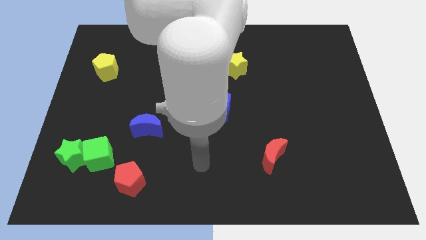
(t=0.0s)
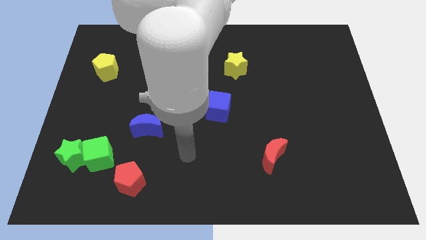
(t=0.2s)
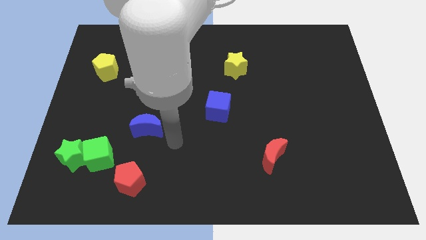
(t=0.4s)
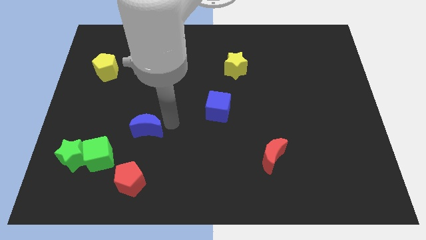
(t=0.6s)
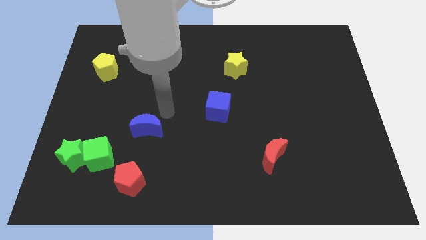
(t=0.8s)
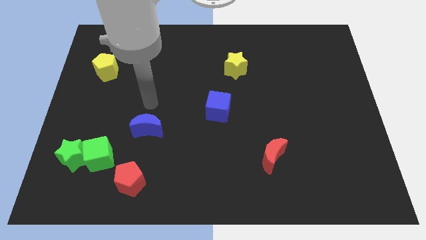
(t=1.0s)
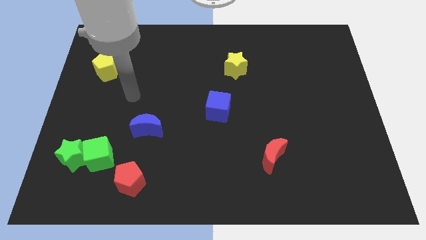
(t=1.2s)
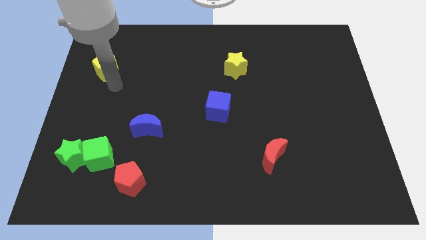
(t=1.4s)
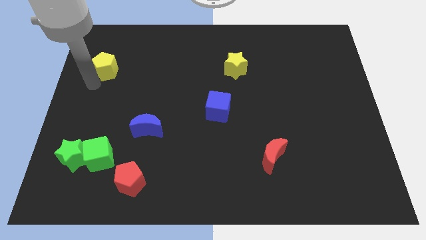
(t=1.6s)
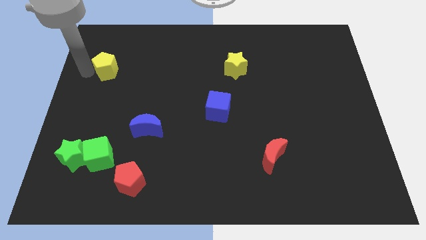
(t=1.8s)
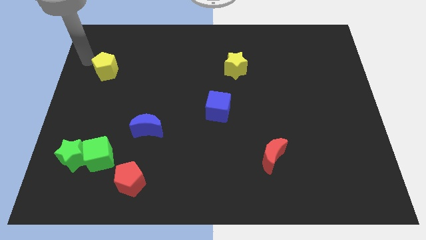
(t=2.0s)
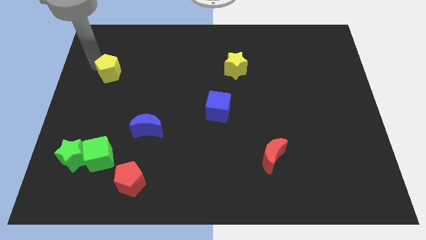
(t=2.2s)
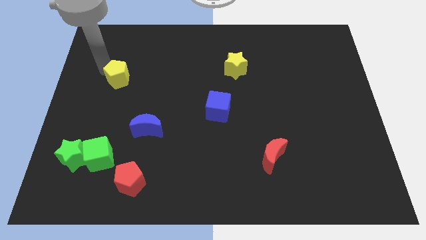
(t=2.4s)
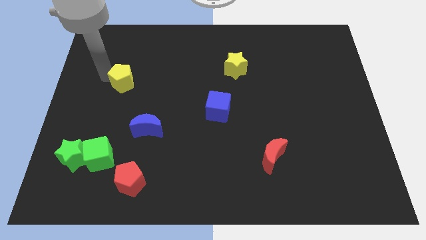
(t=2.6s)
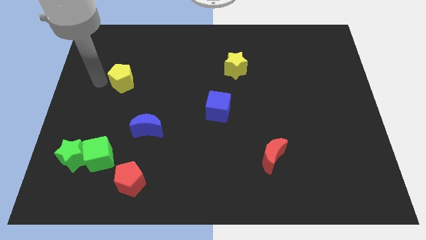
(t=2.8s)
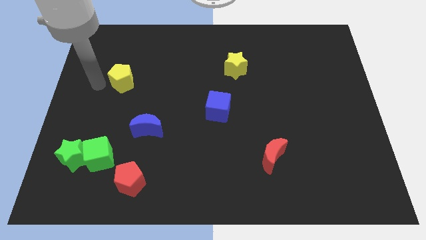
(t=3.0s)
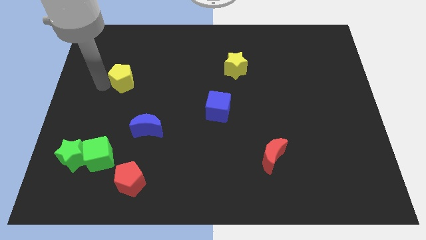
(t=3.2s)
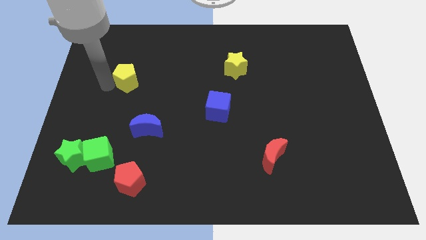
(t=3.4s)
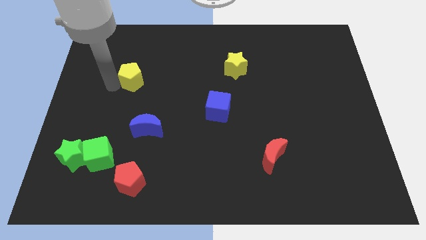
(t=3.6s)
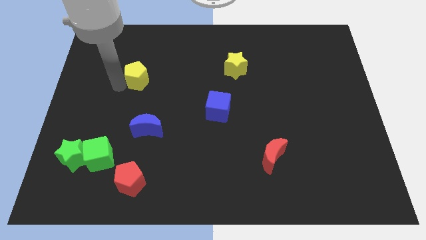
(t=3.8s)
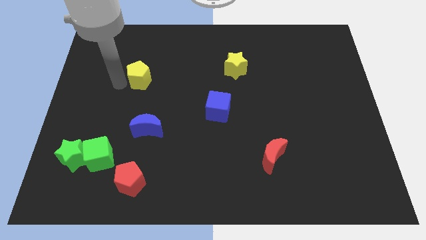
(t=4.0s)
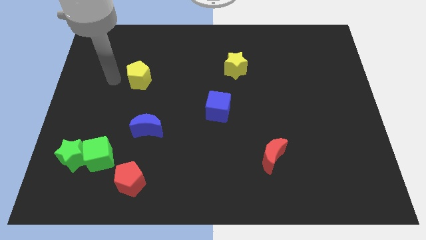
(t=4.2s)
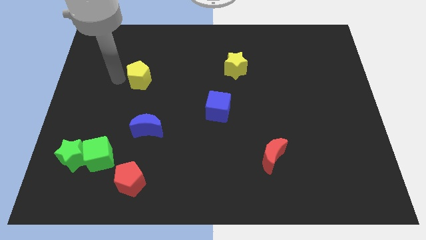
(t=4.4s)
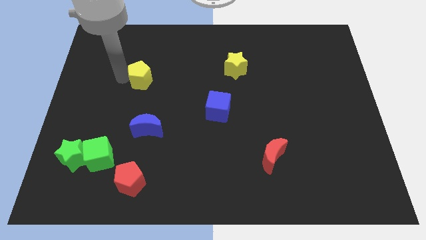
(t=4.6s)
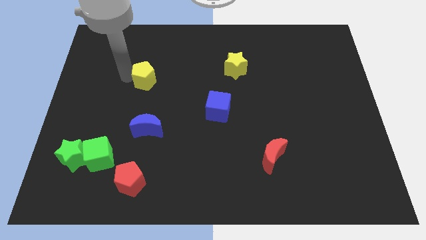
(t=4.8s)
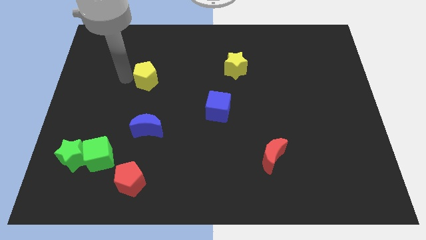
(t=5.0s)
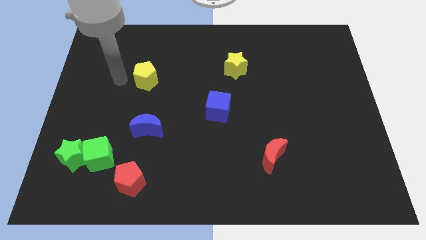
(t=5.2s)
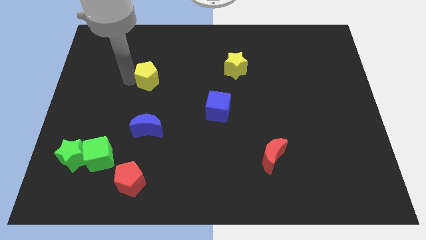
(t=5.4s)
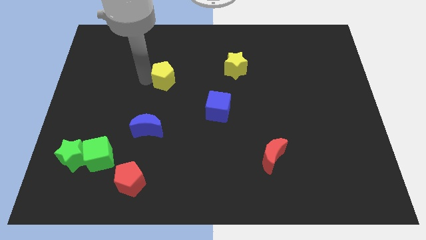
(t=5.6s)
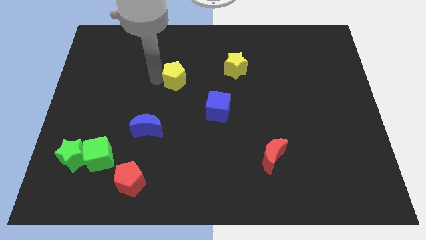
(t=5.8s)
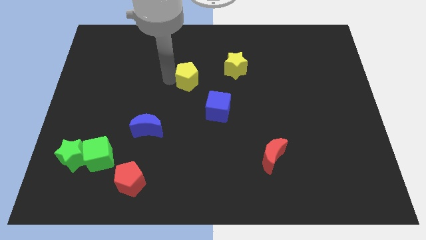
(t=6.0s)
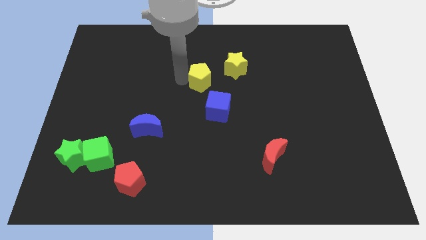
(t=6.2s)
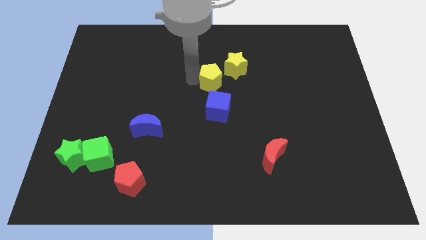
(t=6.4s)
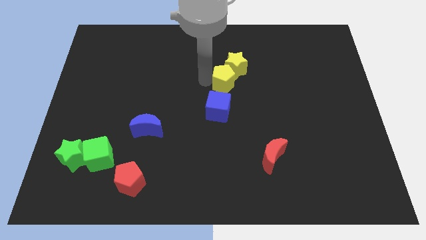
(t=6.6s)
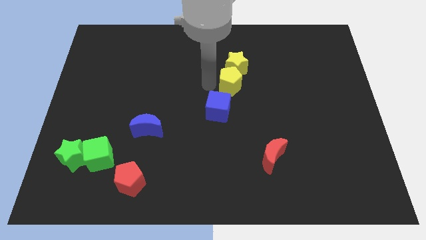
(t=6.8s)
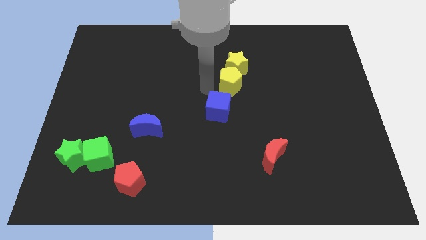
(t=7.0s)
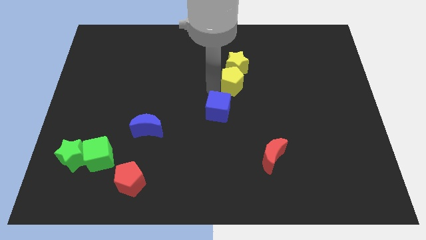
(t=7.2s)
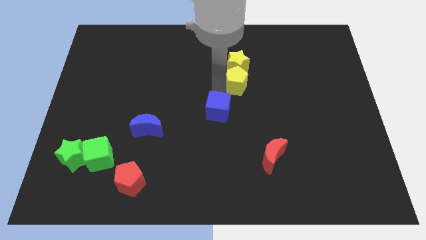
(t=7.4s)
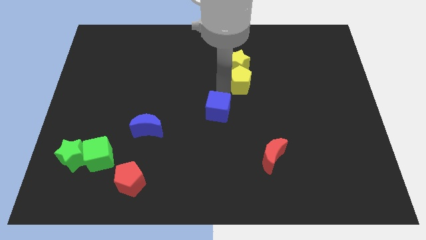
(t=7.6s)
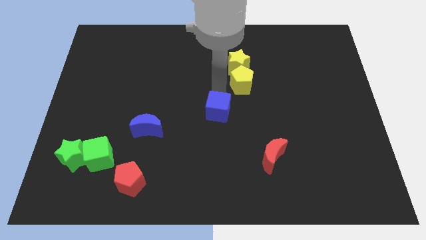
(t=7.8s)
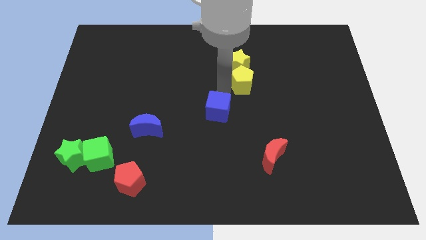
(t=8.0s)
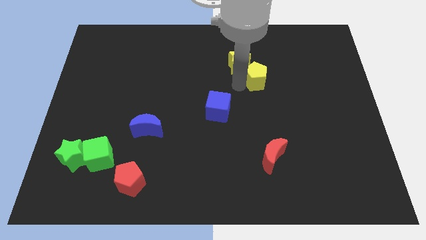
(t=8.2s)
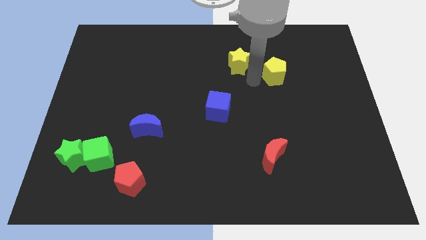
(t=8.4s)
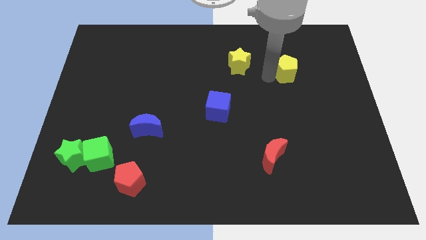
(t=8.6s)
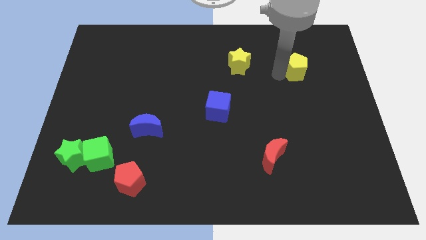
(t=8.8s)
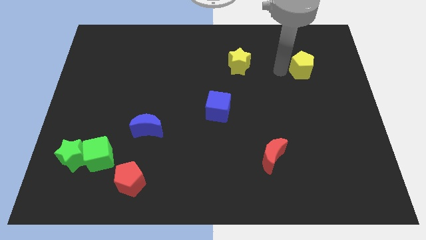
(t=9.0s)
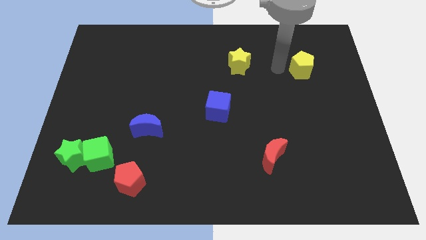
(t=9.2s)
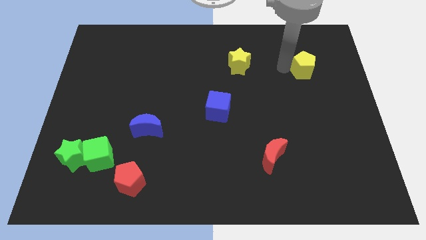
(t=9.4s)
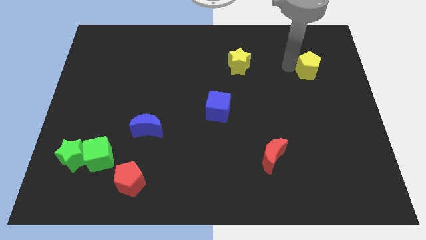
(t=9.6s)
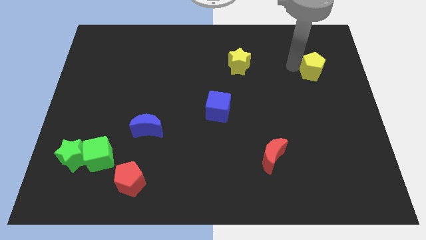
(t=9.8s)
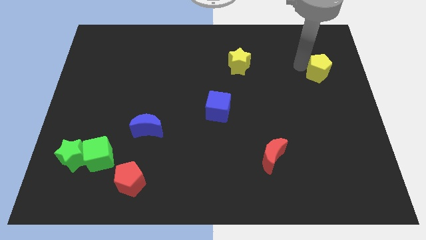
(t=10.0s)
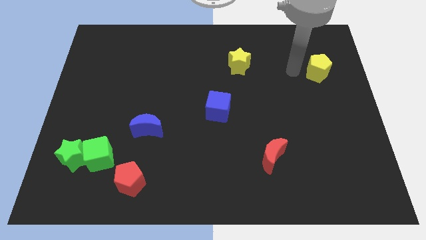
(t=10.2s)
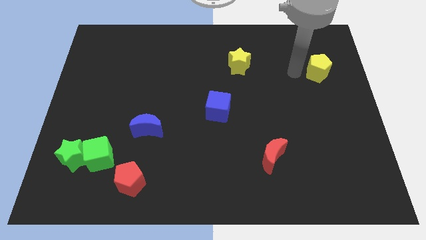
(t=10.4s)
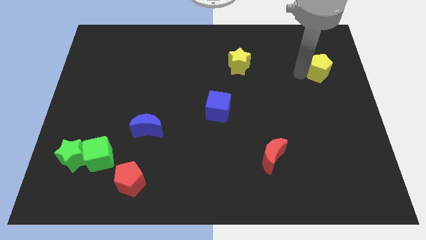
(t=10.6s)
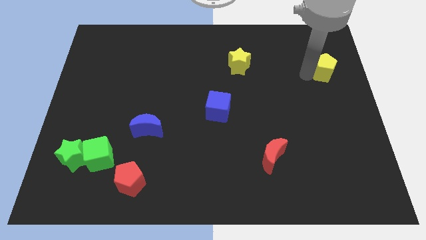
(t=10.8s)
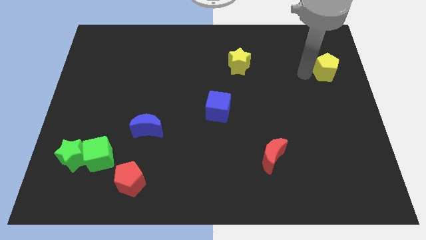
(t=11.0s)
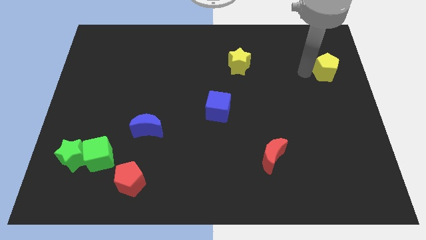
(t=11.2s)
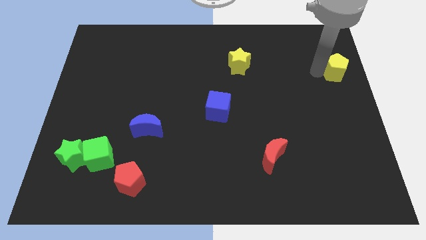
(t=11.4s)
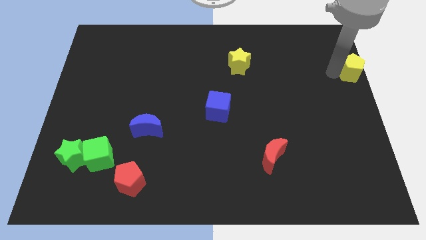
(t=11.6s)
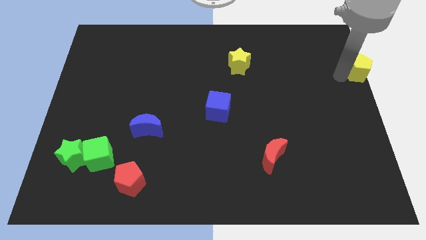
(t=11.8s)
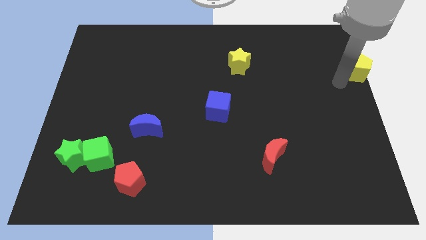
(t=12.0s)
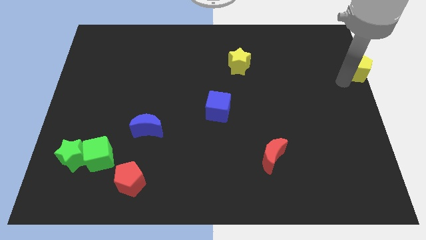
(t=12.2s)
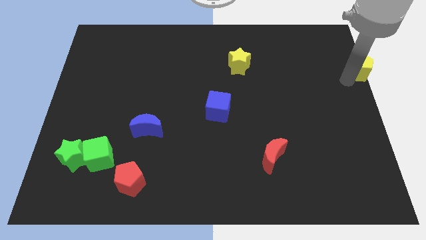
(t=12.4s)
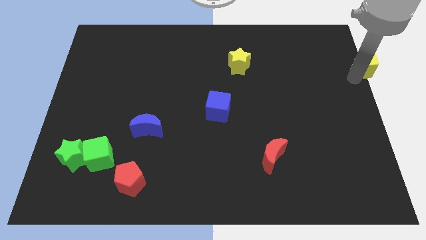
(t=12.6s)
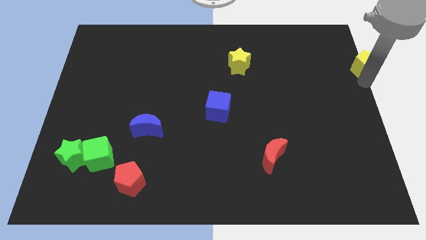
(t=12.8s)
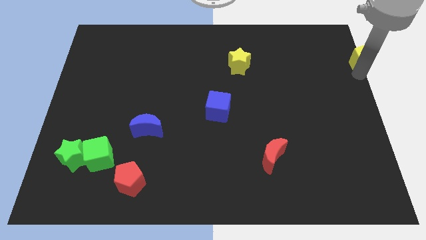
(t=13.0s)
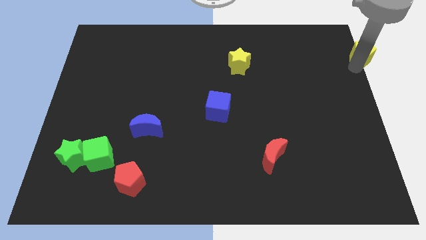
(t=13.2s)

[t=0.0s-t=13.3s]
move the yellow pentagon to the top right corner
